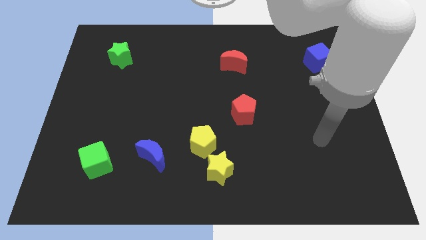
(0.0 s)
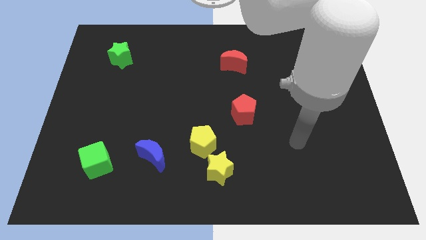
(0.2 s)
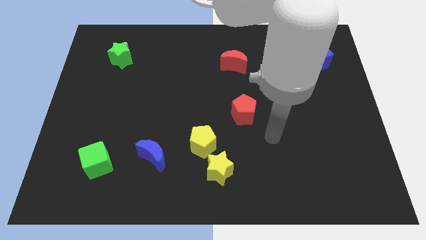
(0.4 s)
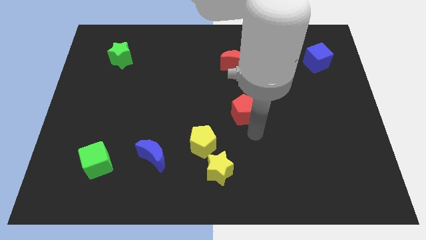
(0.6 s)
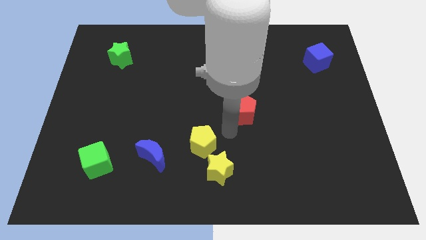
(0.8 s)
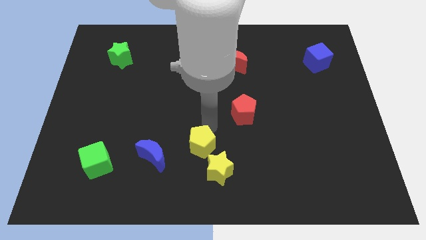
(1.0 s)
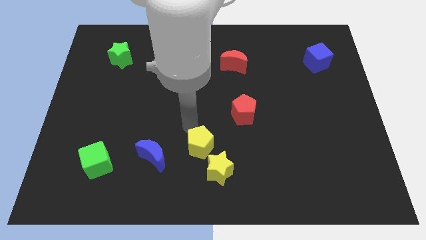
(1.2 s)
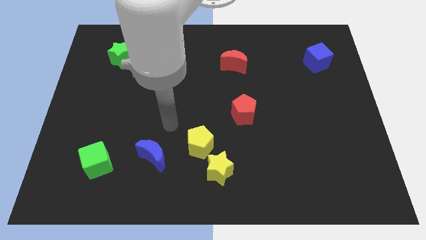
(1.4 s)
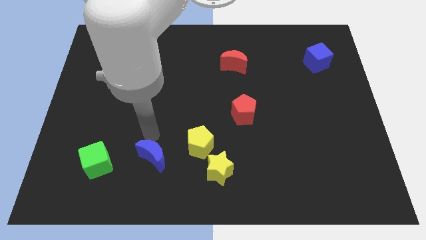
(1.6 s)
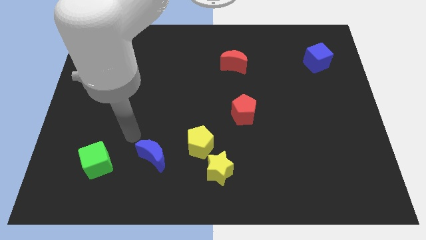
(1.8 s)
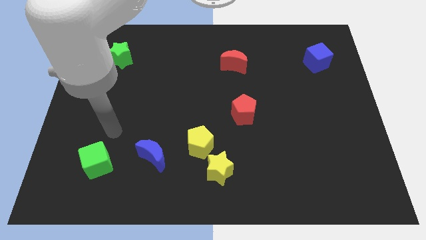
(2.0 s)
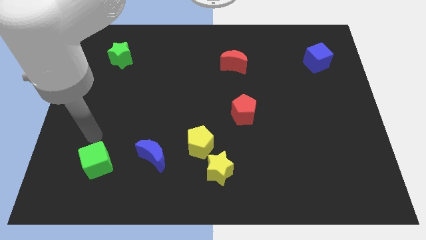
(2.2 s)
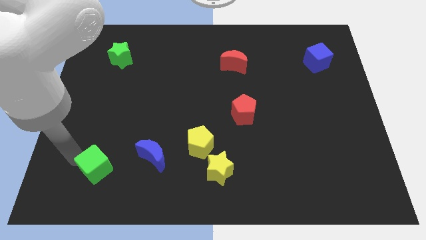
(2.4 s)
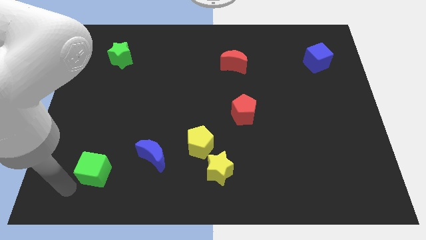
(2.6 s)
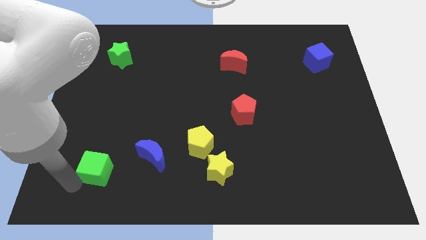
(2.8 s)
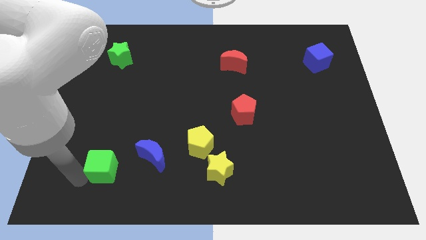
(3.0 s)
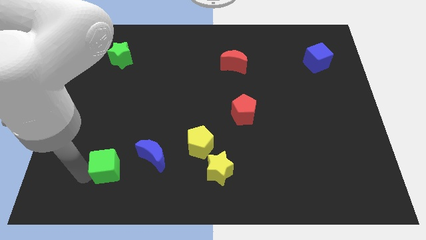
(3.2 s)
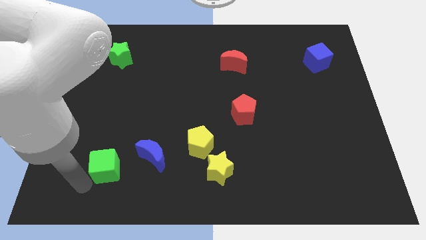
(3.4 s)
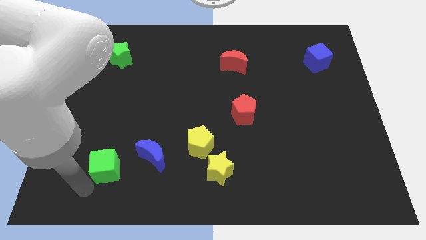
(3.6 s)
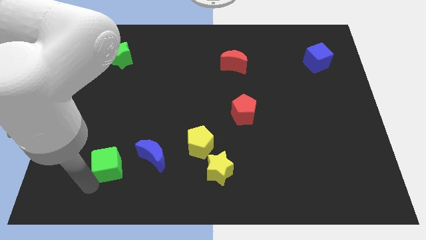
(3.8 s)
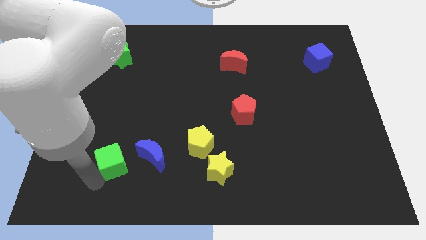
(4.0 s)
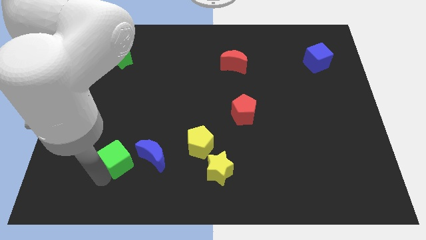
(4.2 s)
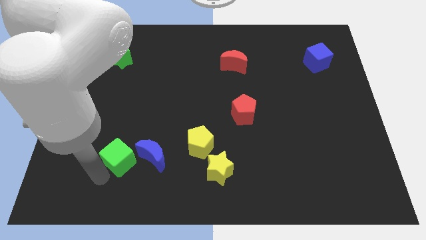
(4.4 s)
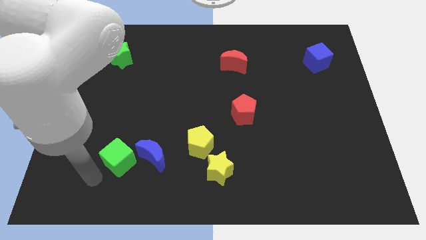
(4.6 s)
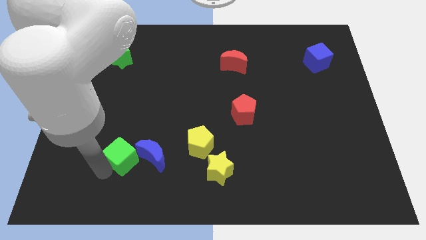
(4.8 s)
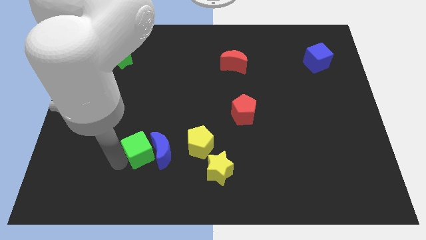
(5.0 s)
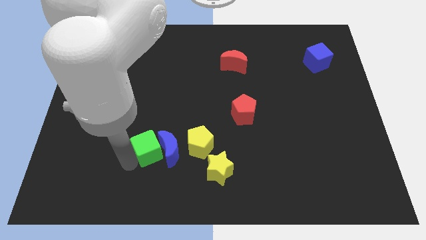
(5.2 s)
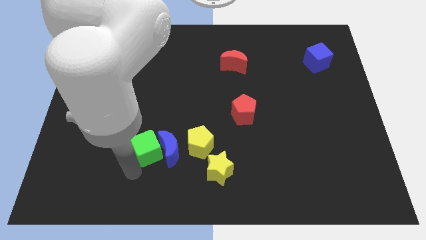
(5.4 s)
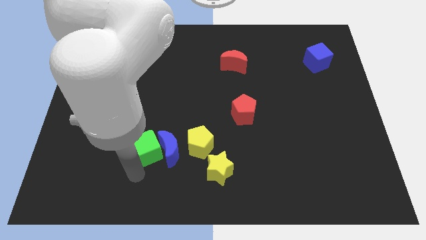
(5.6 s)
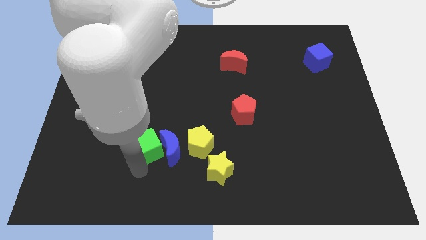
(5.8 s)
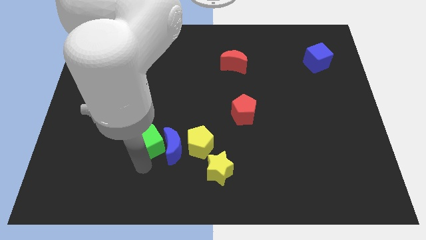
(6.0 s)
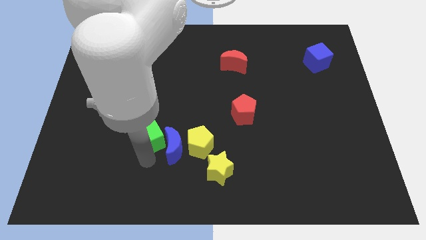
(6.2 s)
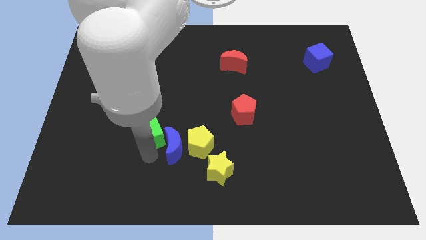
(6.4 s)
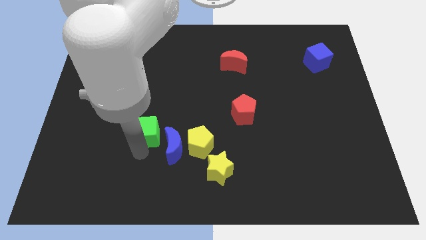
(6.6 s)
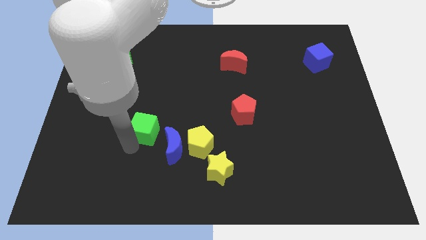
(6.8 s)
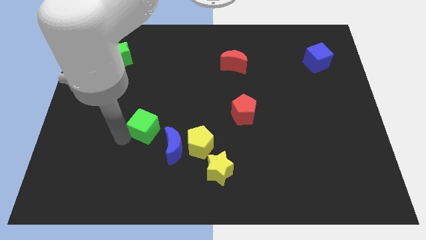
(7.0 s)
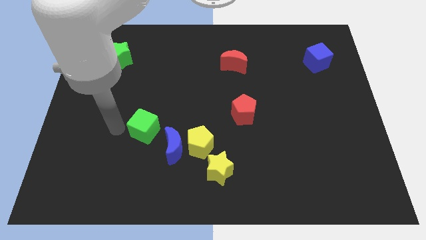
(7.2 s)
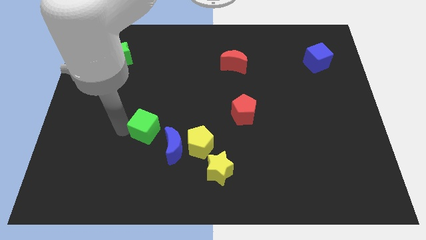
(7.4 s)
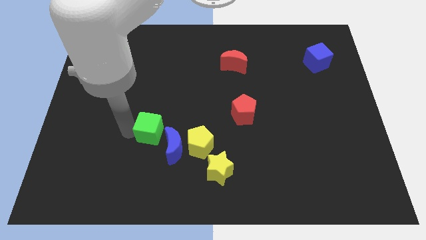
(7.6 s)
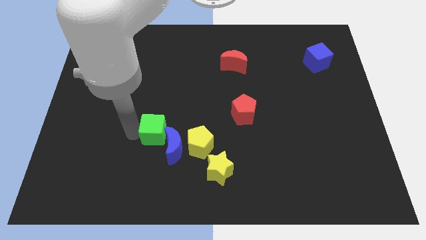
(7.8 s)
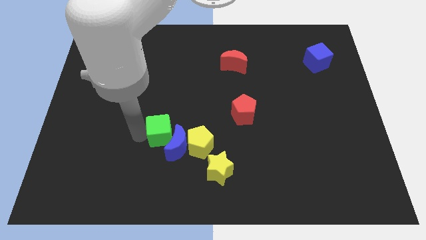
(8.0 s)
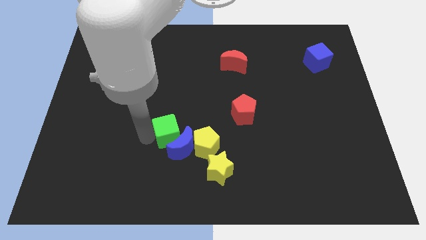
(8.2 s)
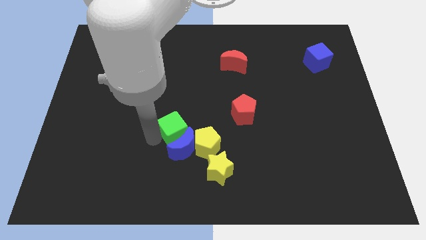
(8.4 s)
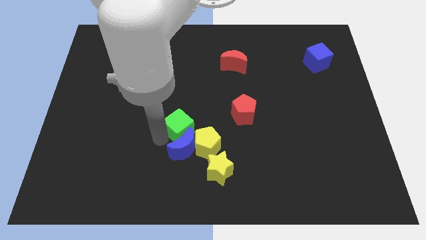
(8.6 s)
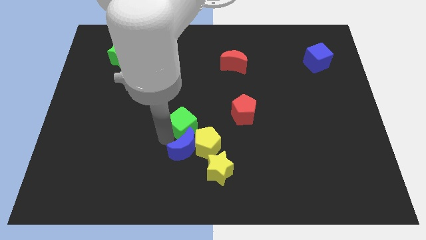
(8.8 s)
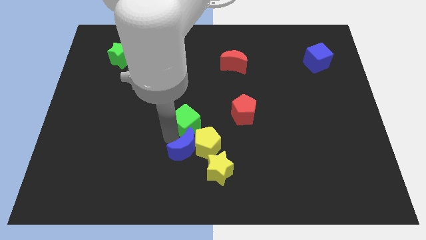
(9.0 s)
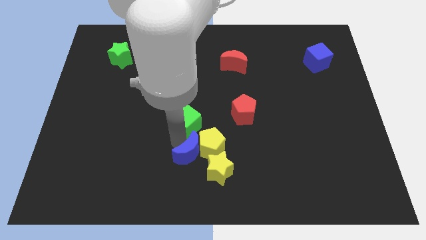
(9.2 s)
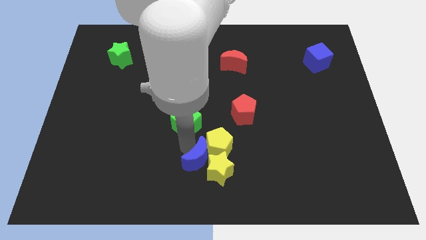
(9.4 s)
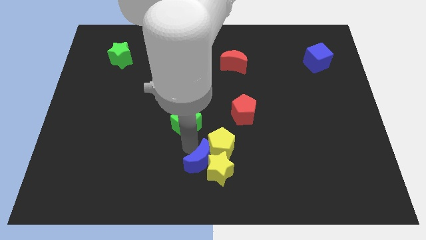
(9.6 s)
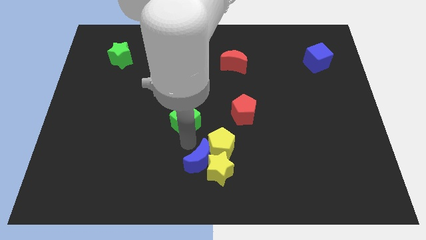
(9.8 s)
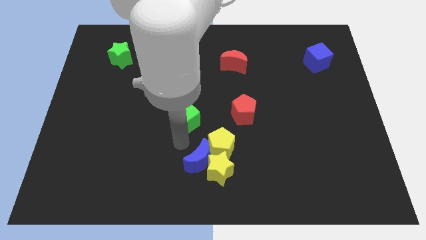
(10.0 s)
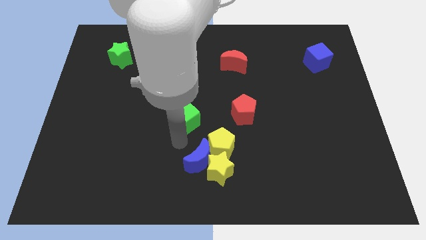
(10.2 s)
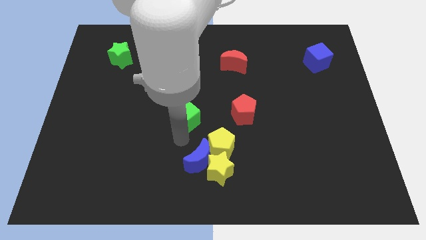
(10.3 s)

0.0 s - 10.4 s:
push the green cube up and to the right

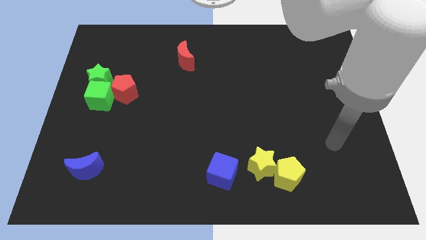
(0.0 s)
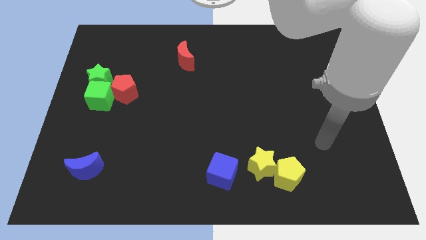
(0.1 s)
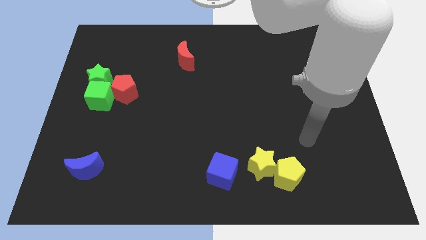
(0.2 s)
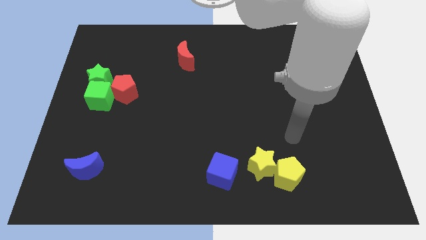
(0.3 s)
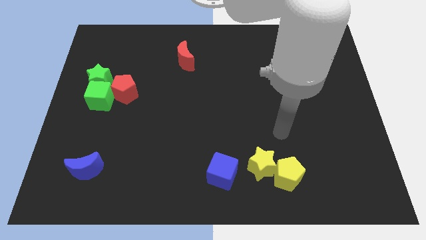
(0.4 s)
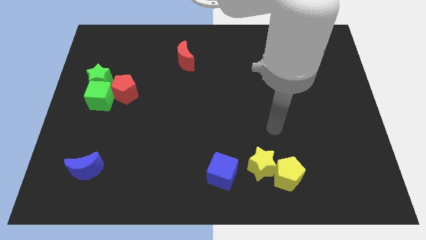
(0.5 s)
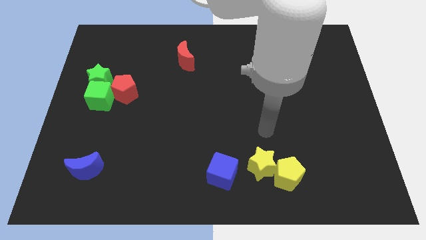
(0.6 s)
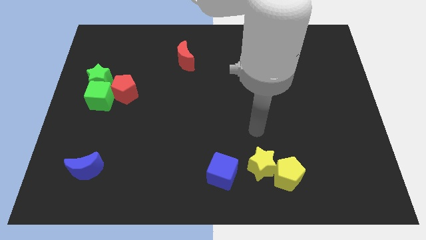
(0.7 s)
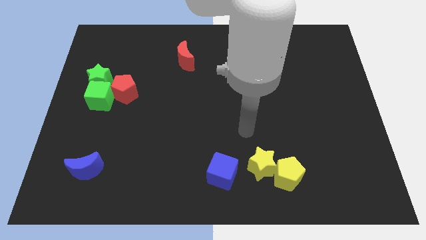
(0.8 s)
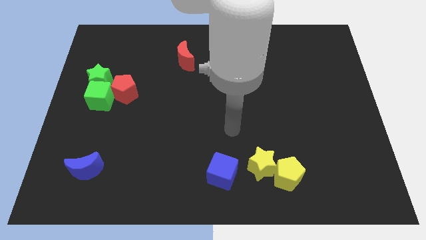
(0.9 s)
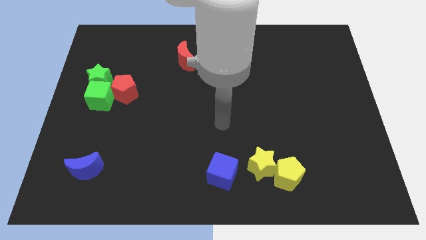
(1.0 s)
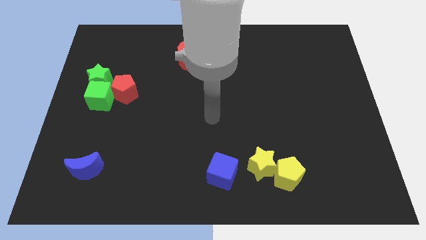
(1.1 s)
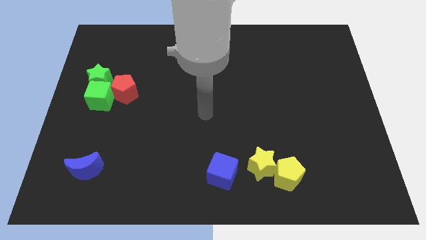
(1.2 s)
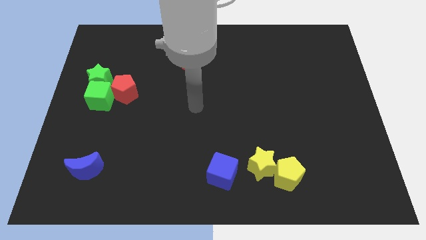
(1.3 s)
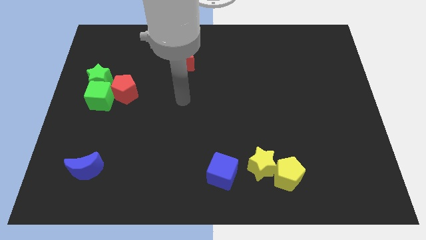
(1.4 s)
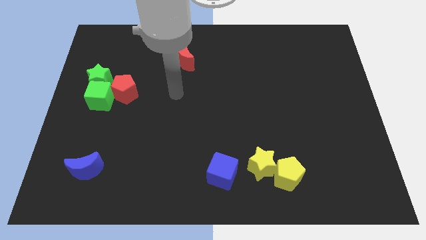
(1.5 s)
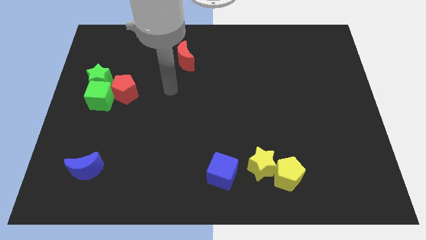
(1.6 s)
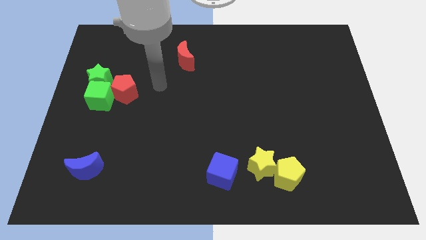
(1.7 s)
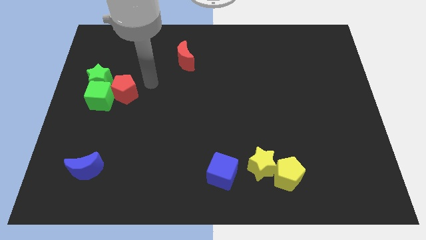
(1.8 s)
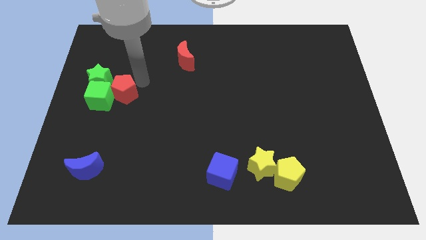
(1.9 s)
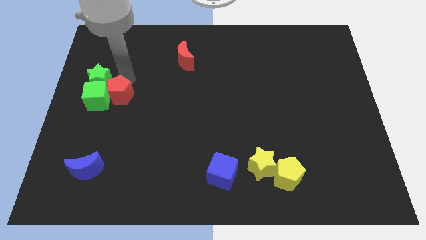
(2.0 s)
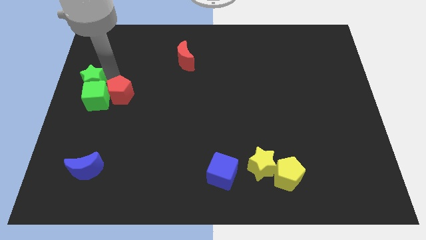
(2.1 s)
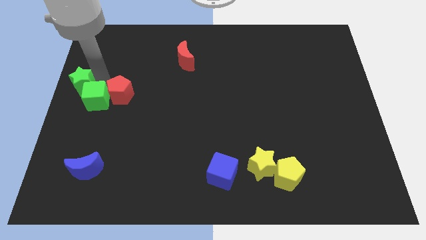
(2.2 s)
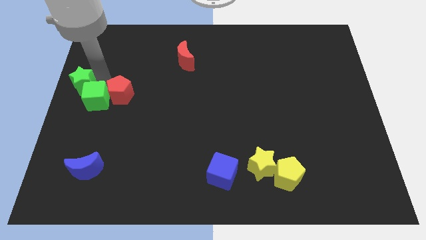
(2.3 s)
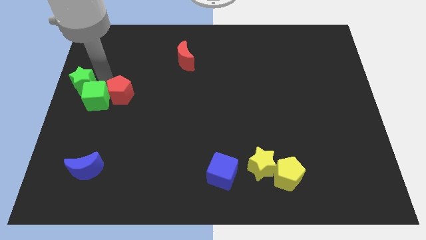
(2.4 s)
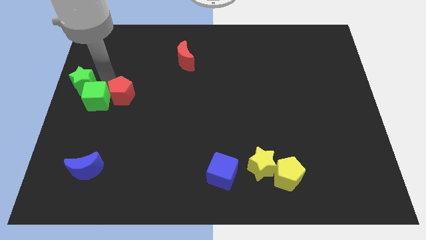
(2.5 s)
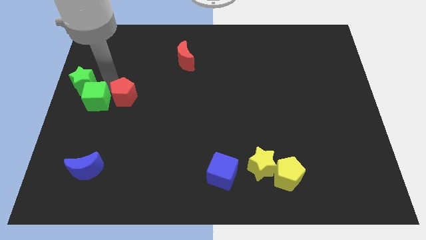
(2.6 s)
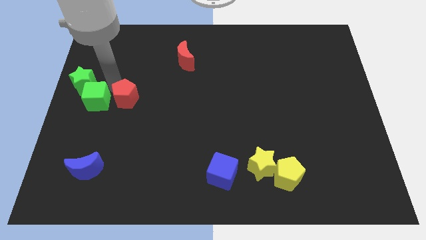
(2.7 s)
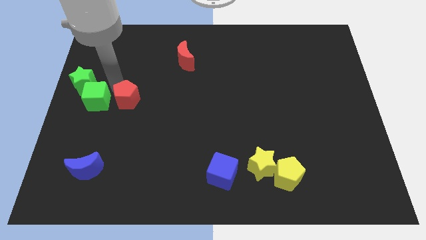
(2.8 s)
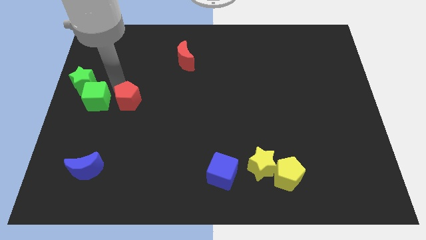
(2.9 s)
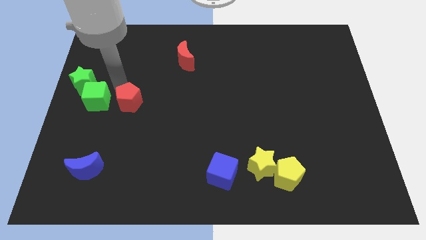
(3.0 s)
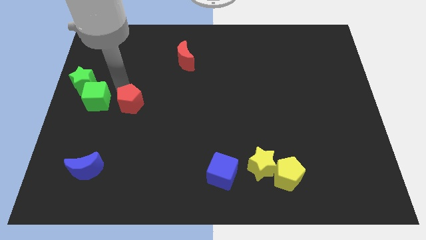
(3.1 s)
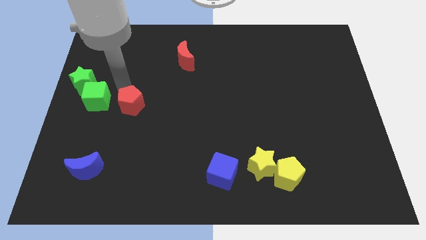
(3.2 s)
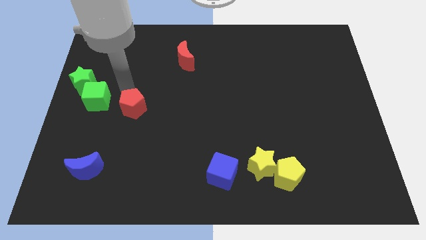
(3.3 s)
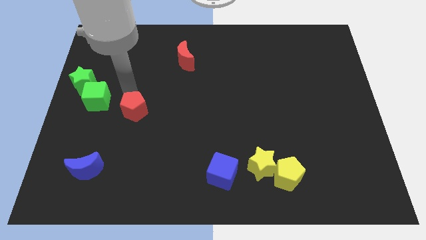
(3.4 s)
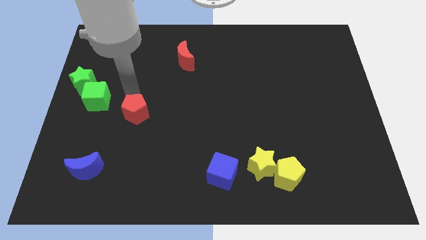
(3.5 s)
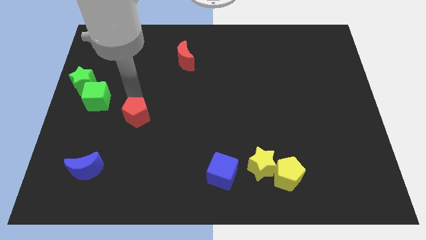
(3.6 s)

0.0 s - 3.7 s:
slide the red pentagon downwards and then to the right a little
